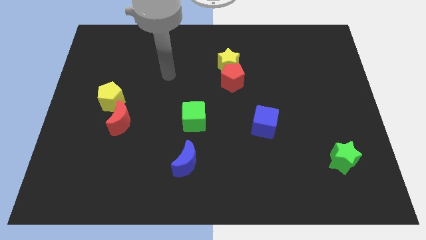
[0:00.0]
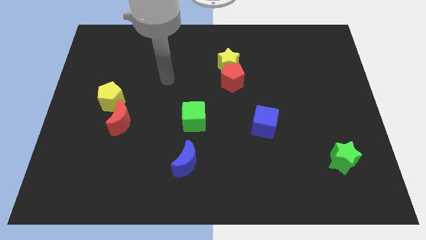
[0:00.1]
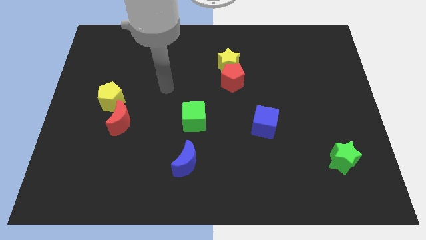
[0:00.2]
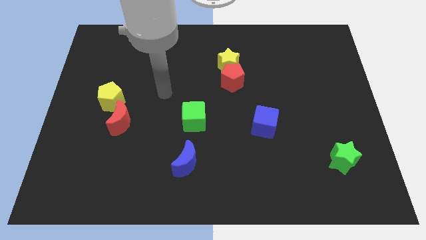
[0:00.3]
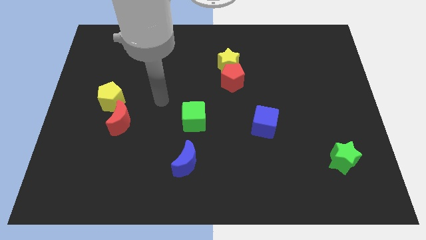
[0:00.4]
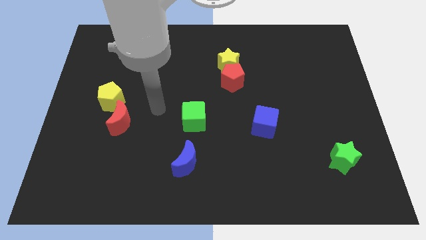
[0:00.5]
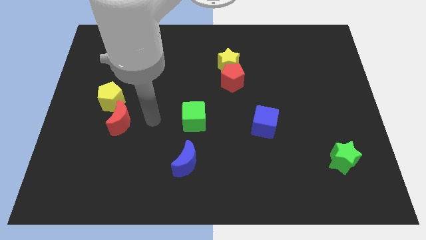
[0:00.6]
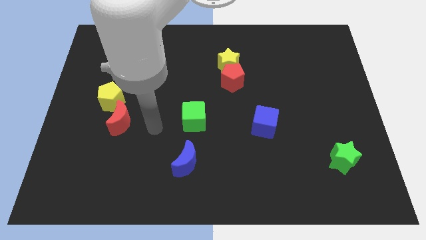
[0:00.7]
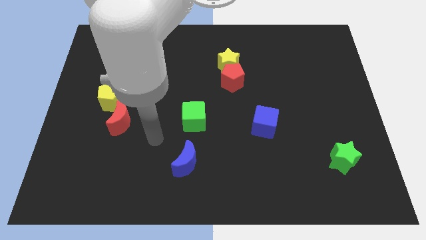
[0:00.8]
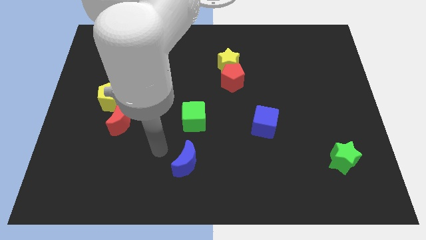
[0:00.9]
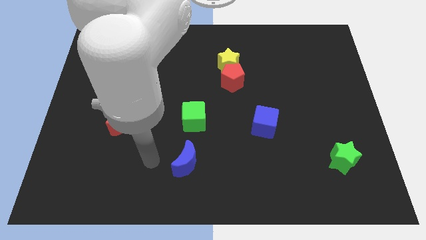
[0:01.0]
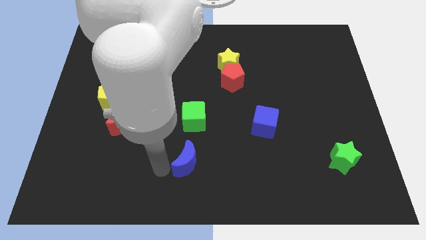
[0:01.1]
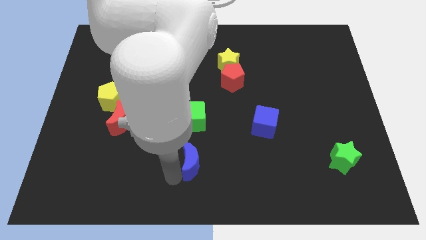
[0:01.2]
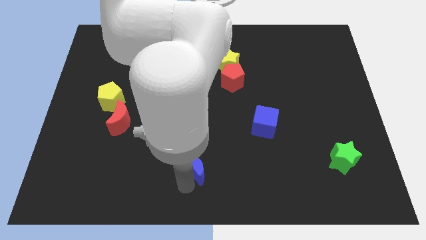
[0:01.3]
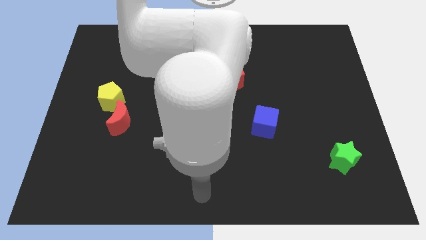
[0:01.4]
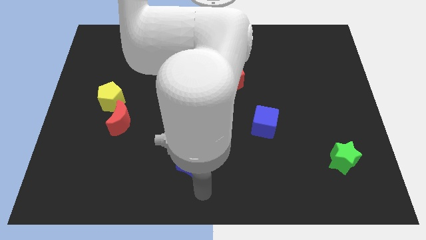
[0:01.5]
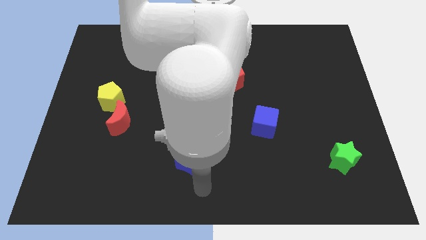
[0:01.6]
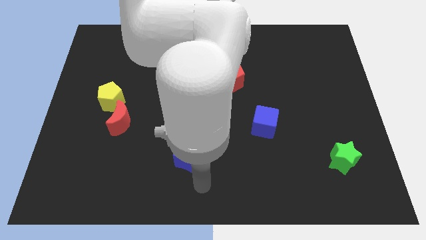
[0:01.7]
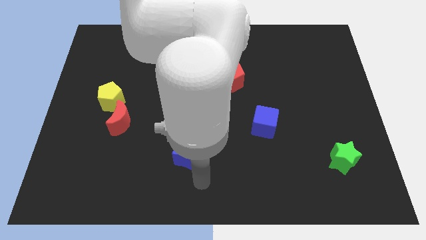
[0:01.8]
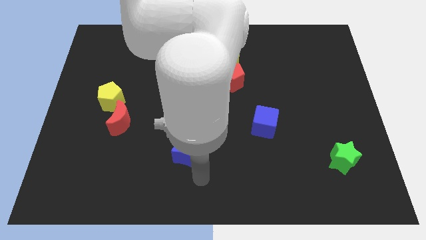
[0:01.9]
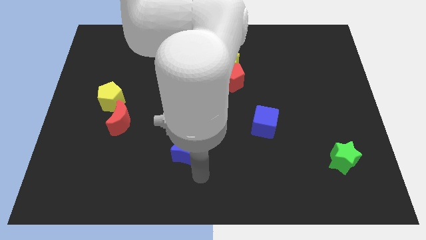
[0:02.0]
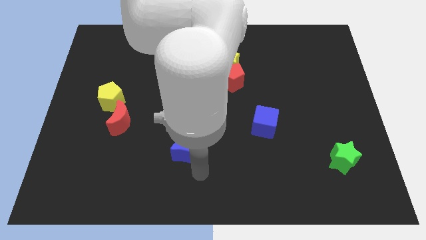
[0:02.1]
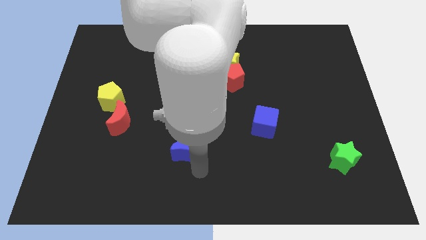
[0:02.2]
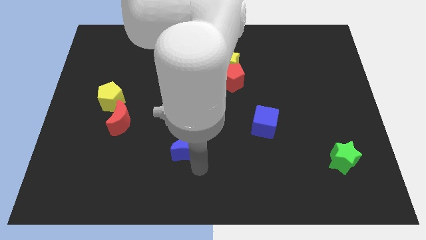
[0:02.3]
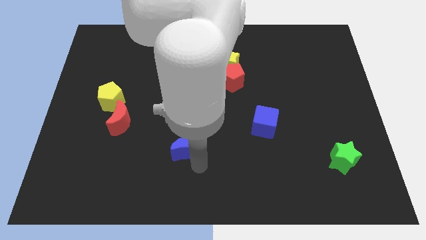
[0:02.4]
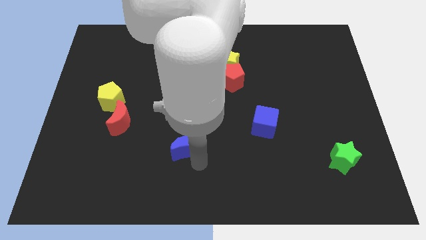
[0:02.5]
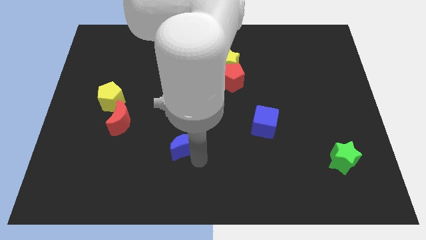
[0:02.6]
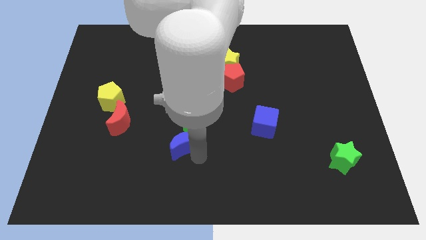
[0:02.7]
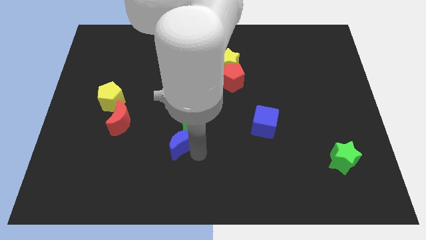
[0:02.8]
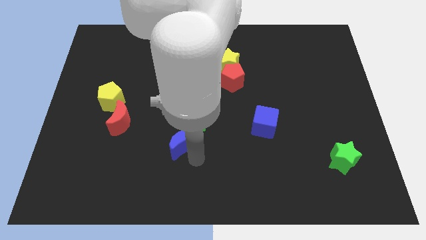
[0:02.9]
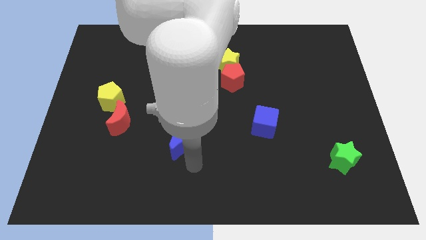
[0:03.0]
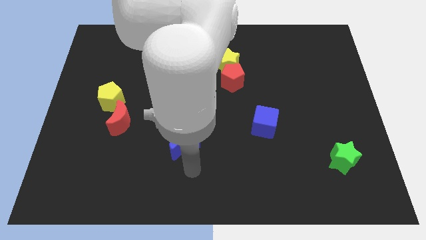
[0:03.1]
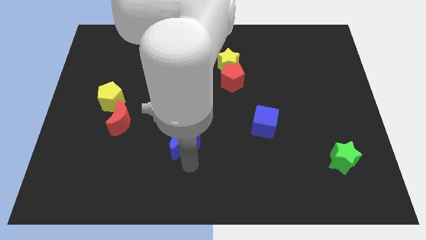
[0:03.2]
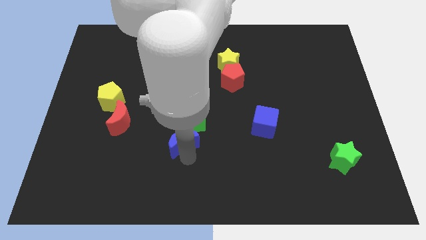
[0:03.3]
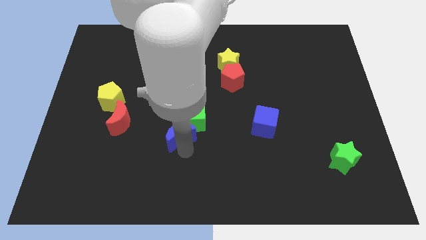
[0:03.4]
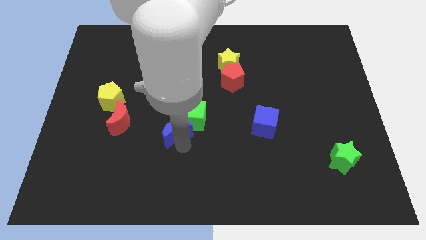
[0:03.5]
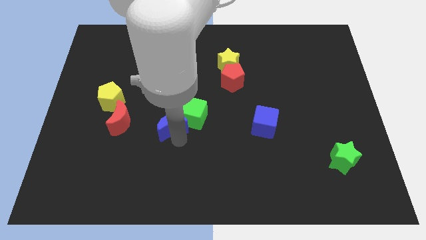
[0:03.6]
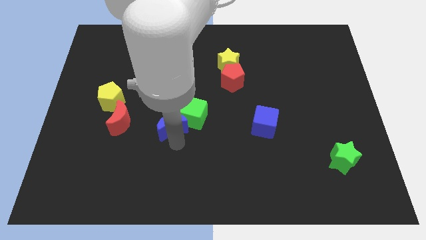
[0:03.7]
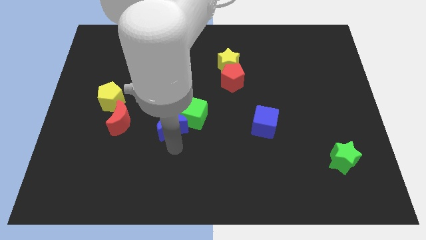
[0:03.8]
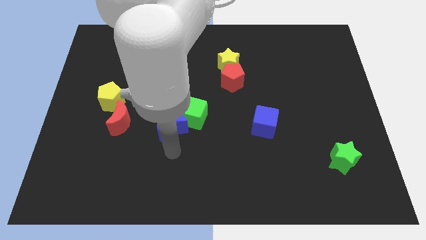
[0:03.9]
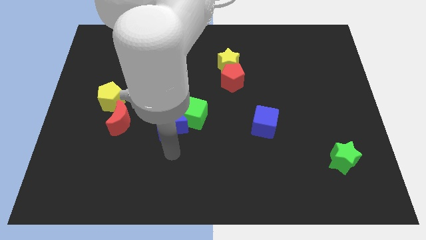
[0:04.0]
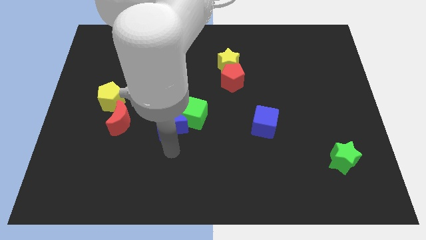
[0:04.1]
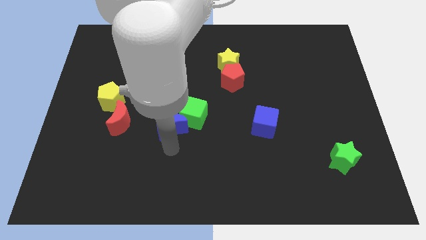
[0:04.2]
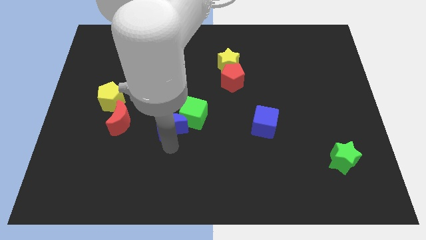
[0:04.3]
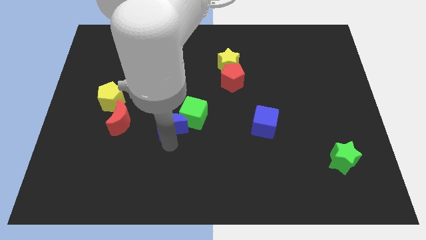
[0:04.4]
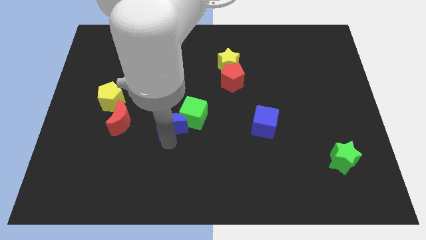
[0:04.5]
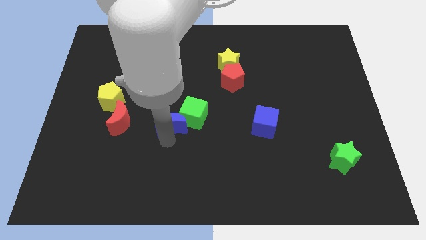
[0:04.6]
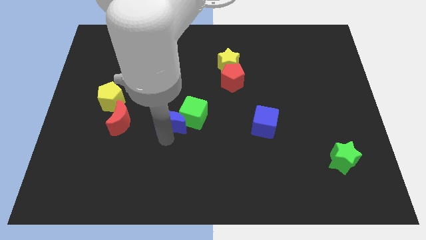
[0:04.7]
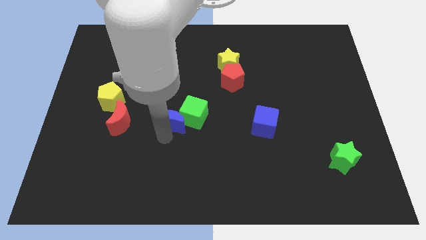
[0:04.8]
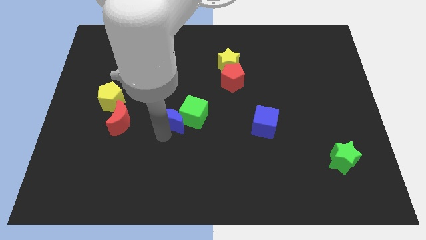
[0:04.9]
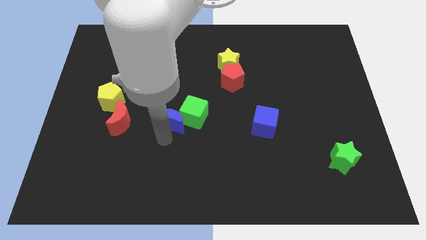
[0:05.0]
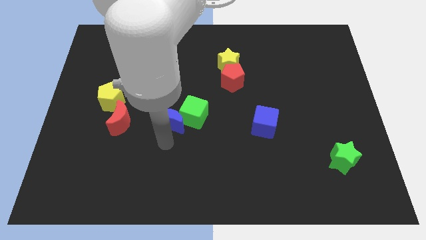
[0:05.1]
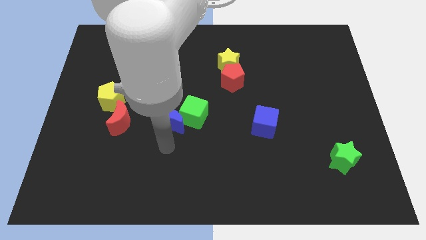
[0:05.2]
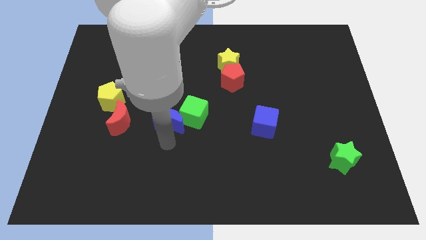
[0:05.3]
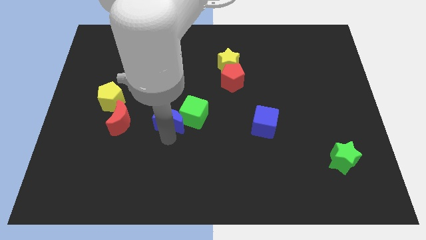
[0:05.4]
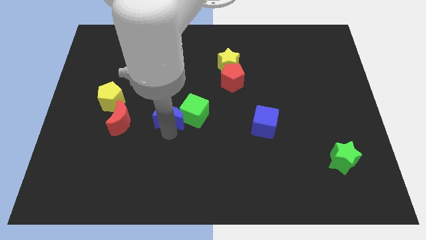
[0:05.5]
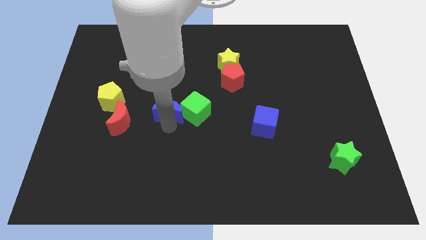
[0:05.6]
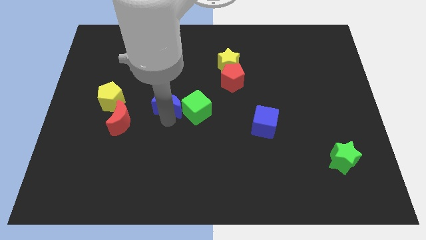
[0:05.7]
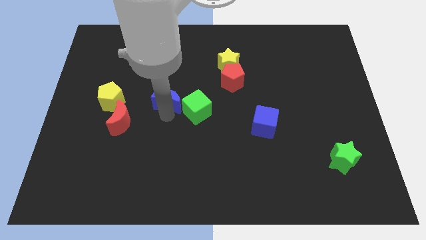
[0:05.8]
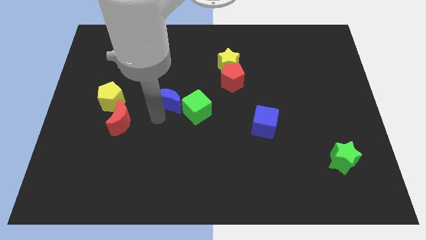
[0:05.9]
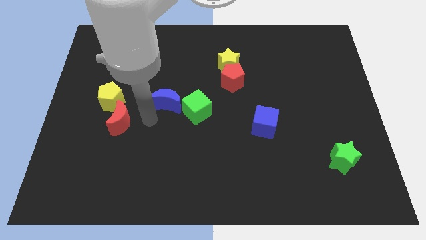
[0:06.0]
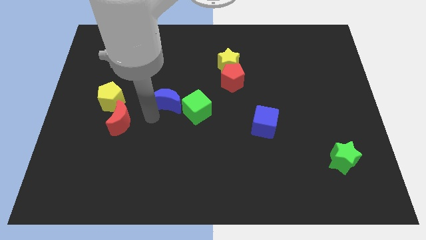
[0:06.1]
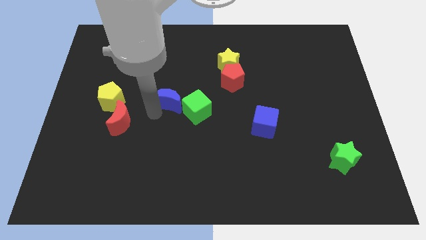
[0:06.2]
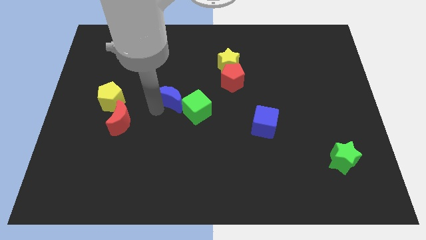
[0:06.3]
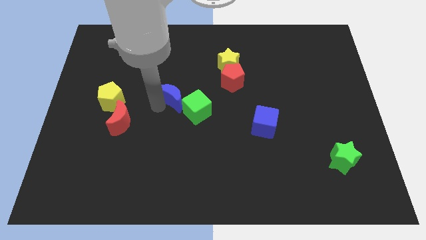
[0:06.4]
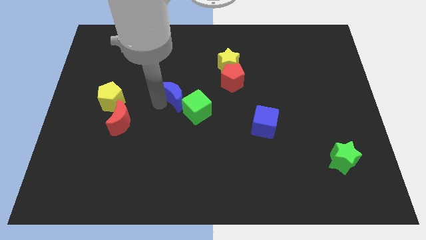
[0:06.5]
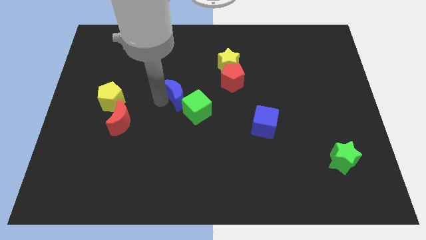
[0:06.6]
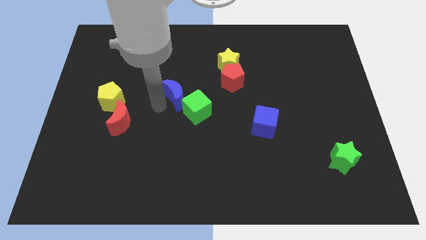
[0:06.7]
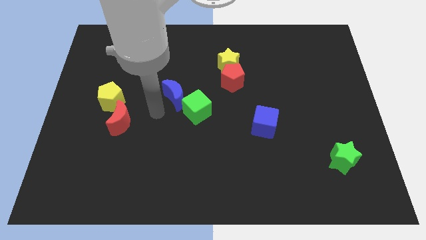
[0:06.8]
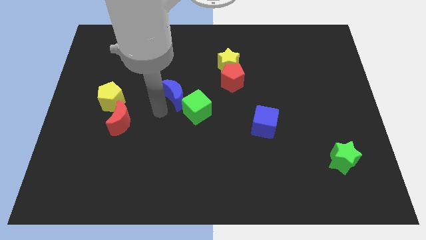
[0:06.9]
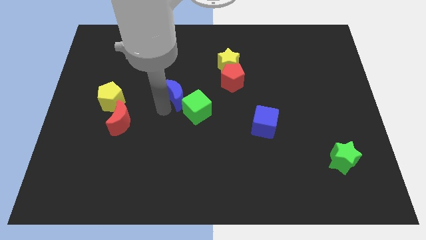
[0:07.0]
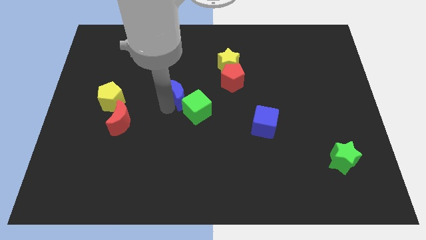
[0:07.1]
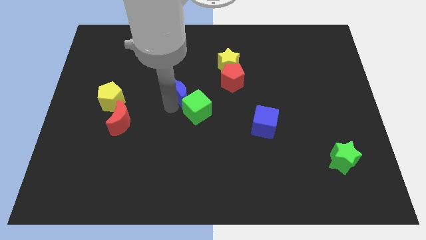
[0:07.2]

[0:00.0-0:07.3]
move the blue moon above the green cube
